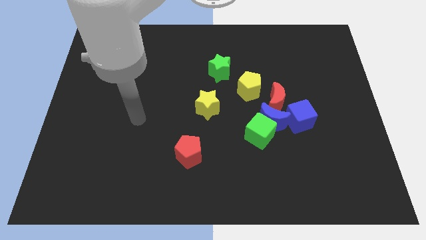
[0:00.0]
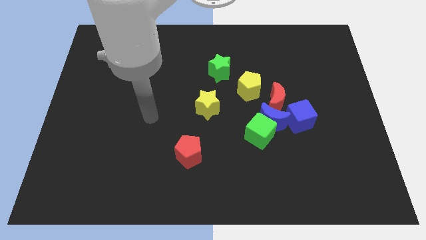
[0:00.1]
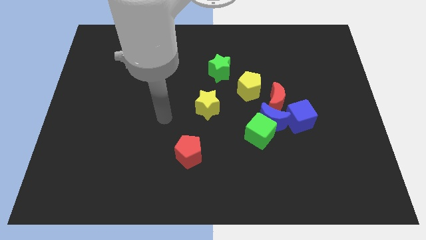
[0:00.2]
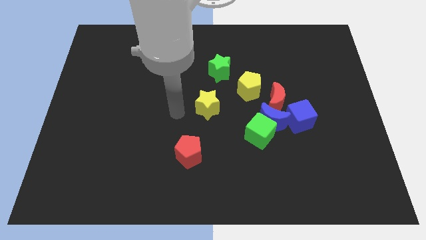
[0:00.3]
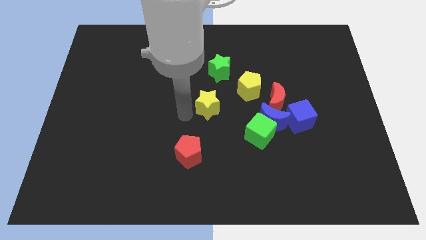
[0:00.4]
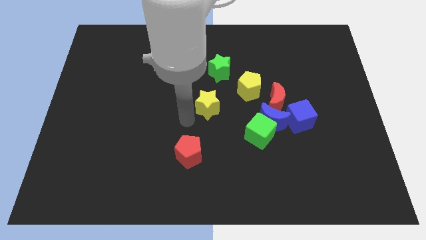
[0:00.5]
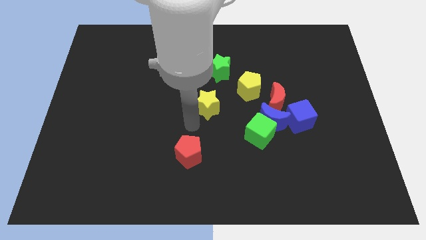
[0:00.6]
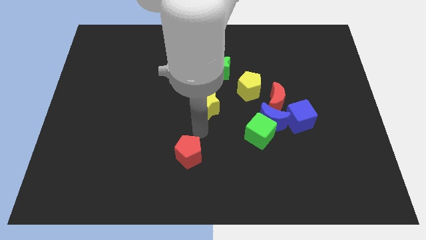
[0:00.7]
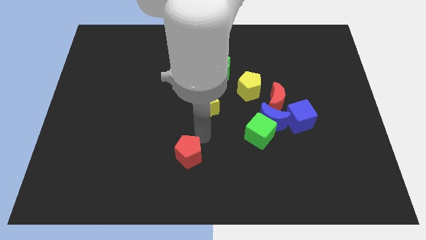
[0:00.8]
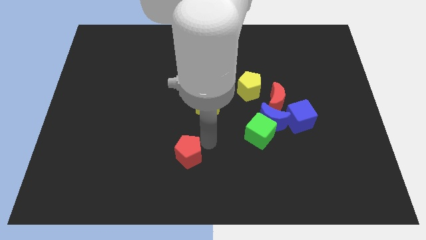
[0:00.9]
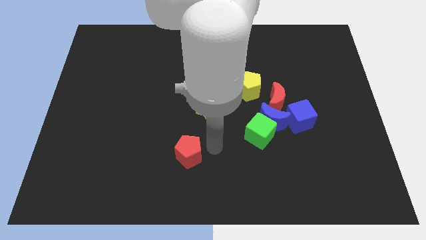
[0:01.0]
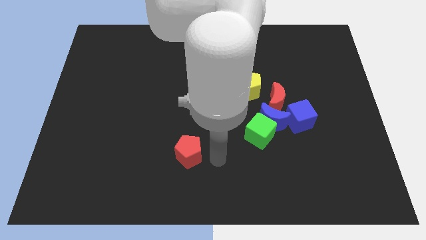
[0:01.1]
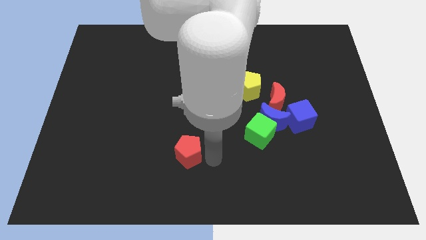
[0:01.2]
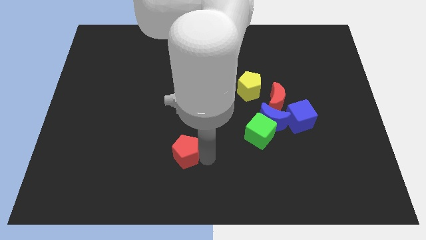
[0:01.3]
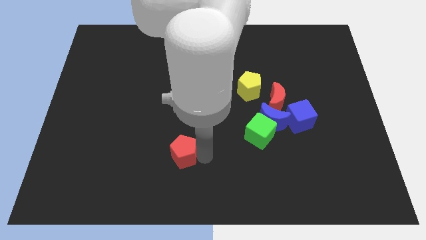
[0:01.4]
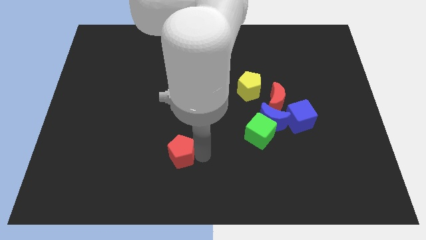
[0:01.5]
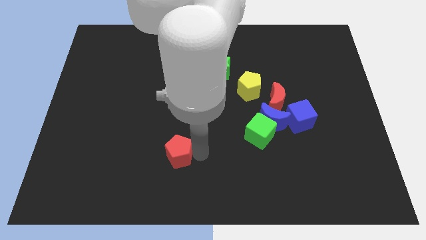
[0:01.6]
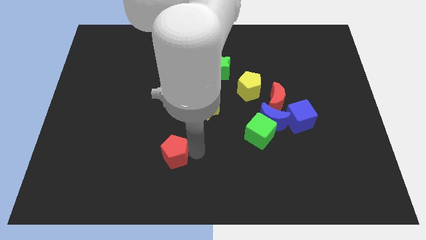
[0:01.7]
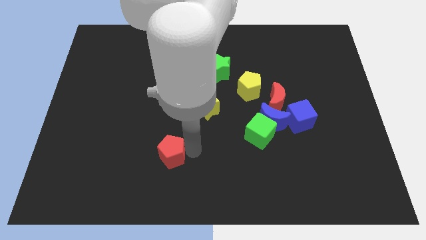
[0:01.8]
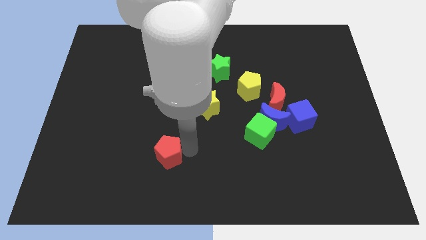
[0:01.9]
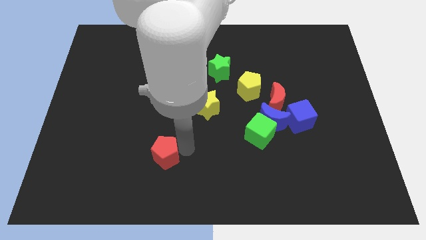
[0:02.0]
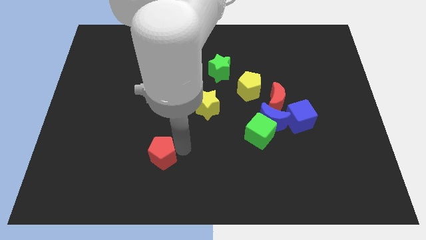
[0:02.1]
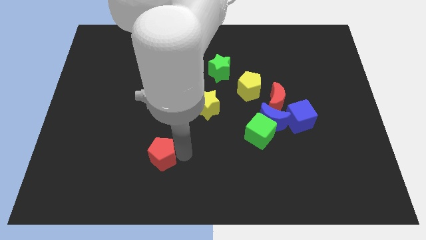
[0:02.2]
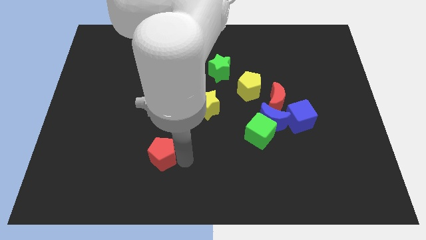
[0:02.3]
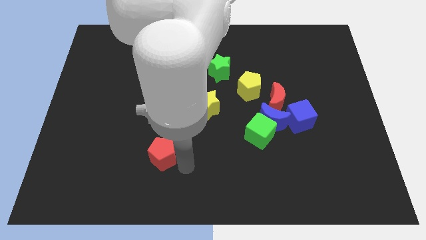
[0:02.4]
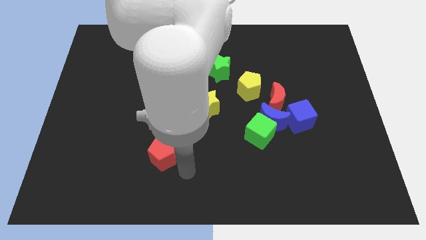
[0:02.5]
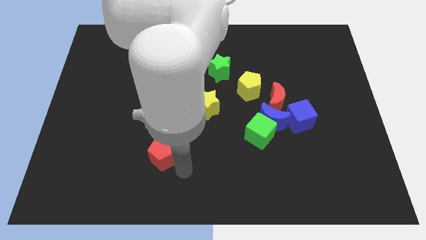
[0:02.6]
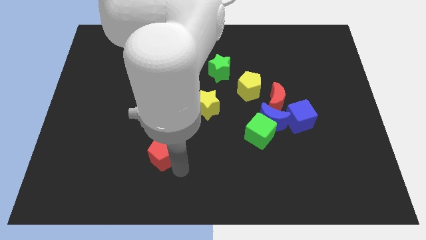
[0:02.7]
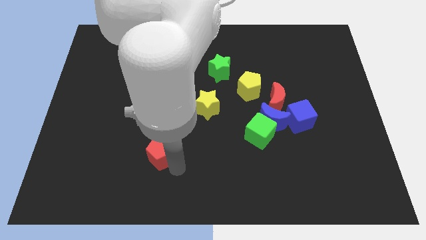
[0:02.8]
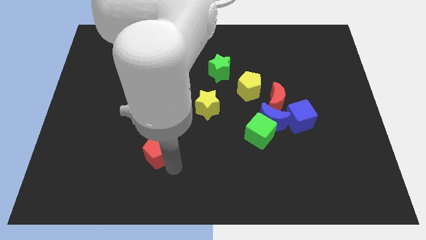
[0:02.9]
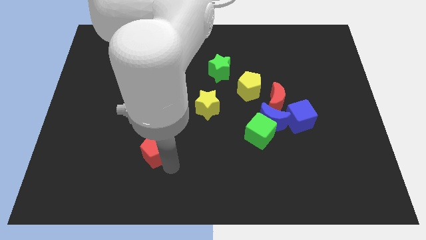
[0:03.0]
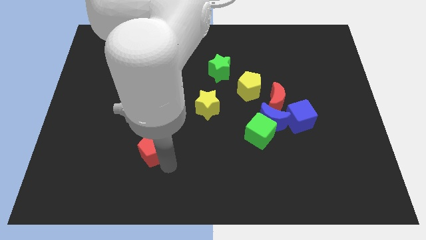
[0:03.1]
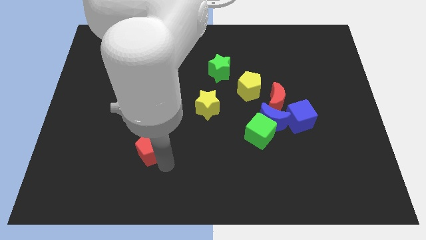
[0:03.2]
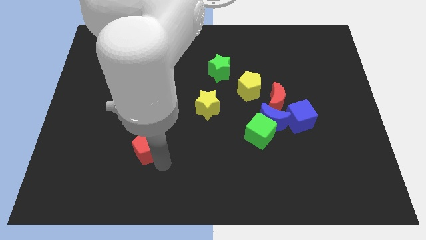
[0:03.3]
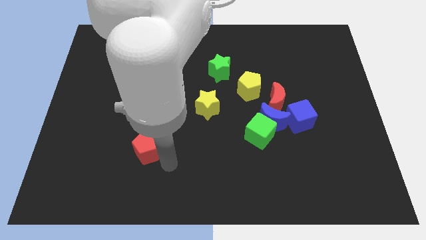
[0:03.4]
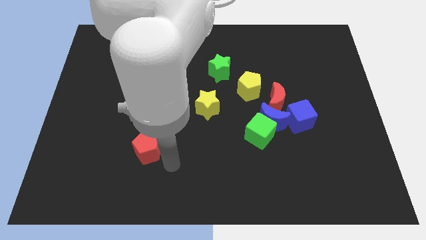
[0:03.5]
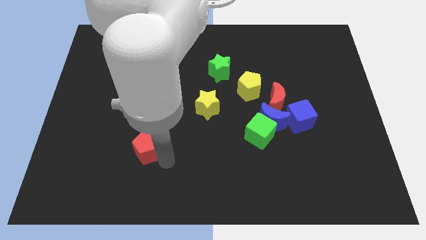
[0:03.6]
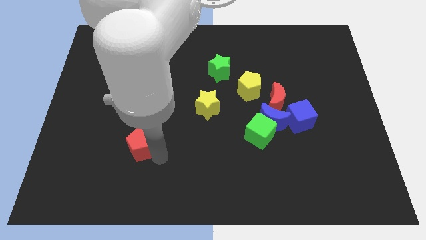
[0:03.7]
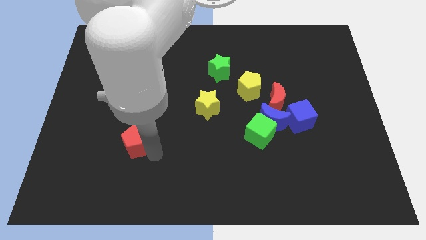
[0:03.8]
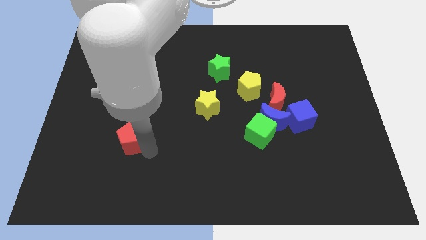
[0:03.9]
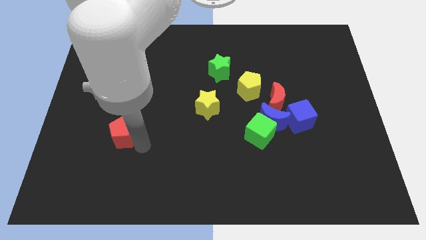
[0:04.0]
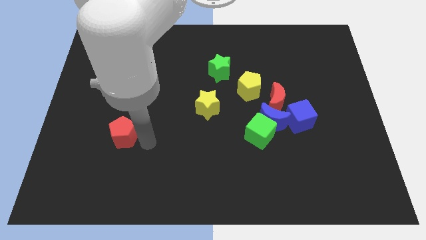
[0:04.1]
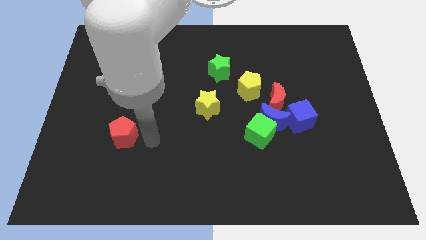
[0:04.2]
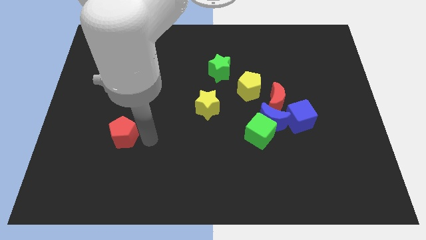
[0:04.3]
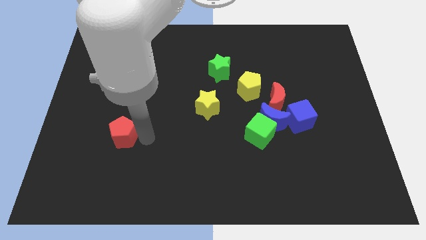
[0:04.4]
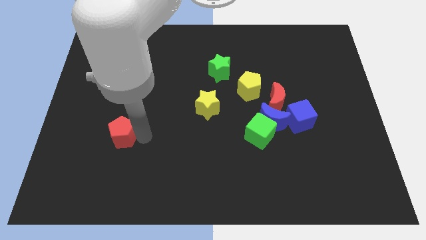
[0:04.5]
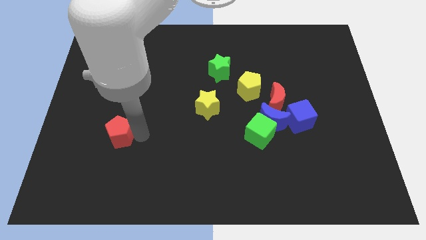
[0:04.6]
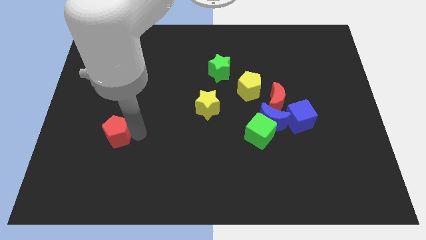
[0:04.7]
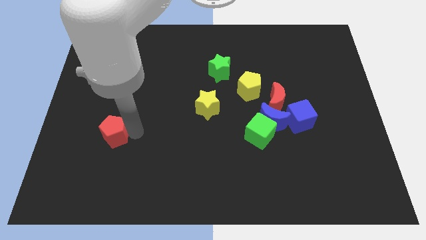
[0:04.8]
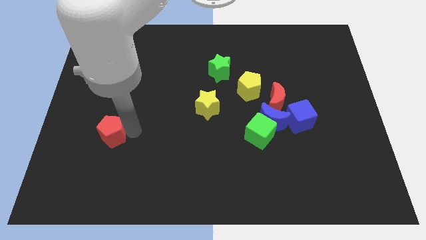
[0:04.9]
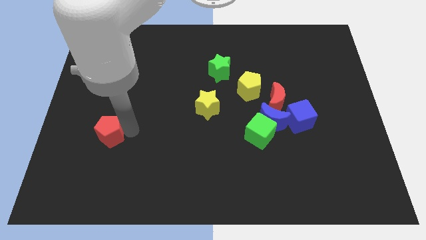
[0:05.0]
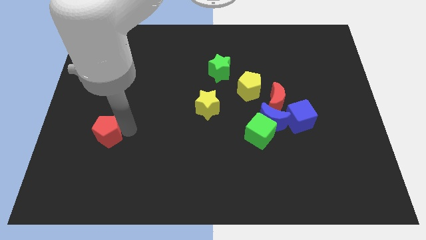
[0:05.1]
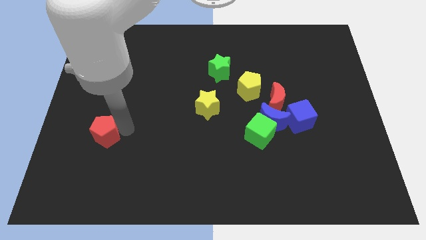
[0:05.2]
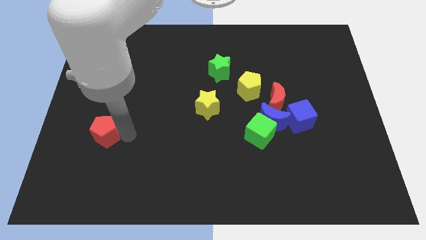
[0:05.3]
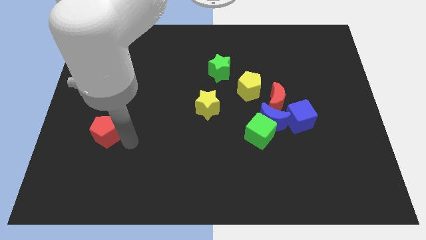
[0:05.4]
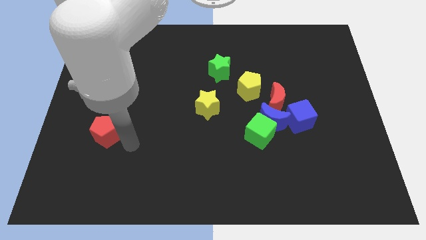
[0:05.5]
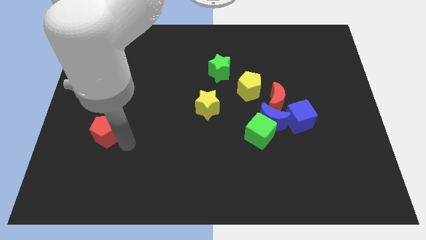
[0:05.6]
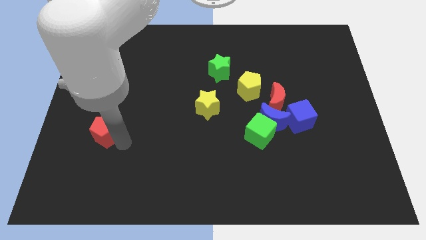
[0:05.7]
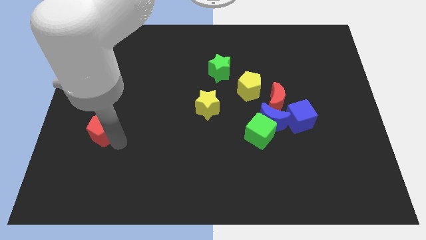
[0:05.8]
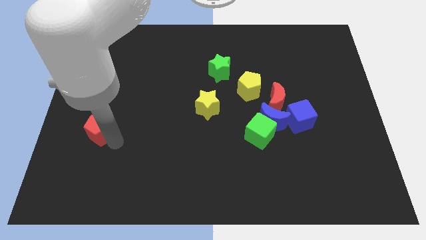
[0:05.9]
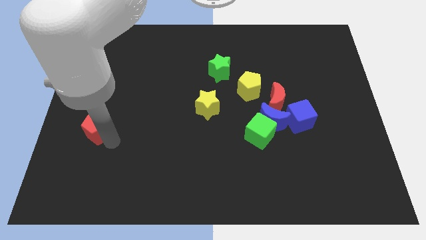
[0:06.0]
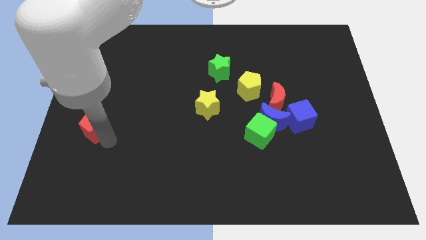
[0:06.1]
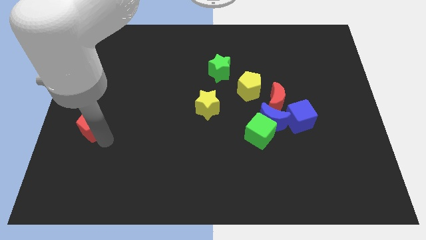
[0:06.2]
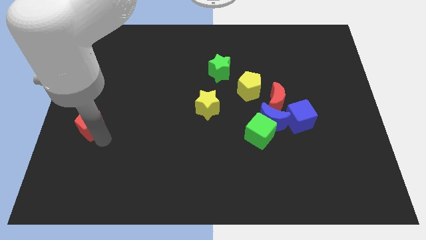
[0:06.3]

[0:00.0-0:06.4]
push the red pentagon to the left side

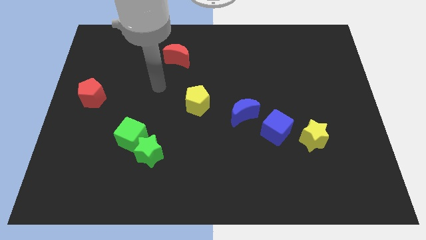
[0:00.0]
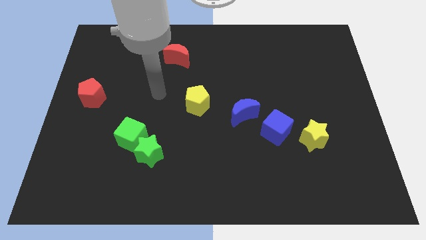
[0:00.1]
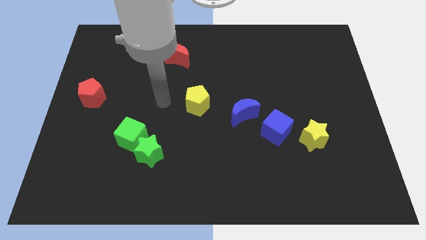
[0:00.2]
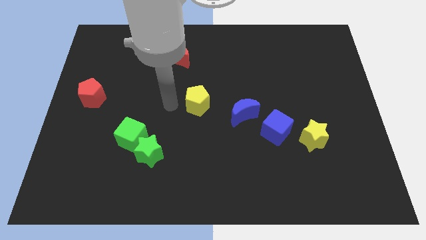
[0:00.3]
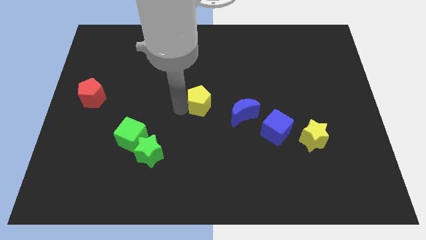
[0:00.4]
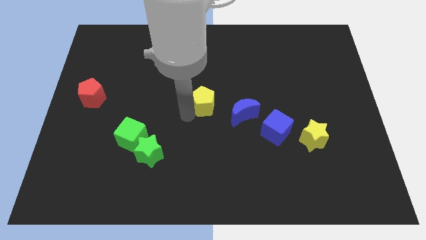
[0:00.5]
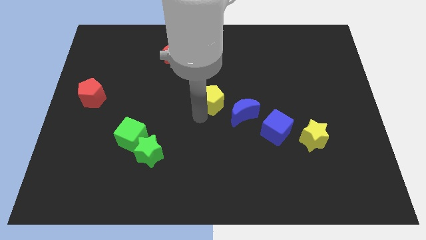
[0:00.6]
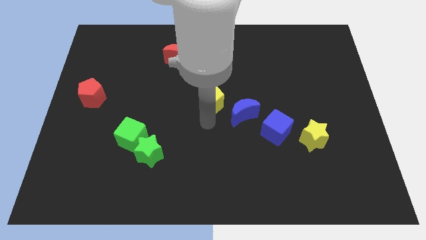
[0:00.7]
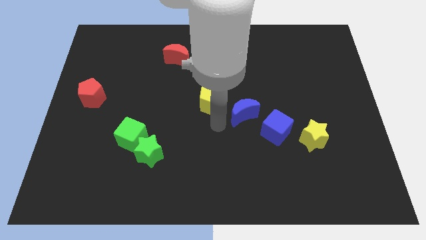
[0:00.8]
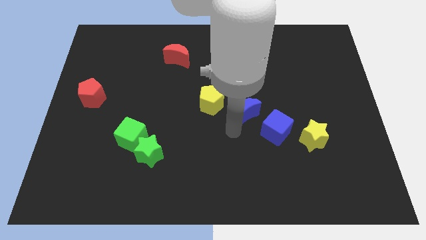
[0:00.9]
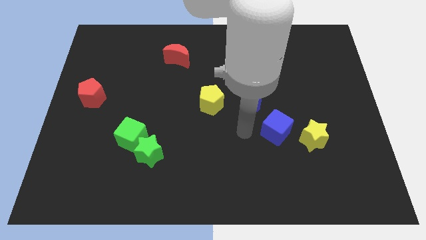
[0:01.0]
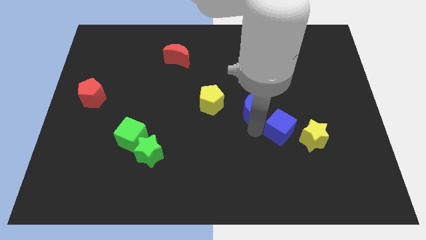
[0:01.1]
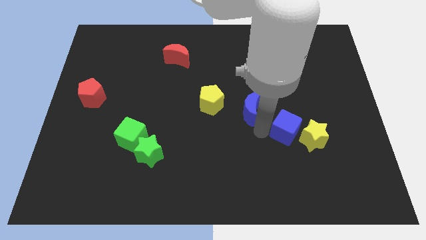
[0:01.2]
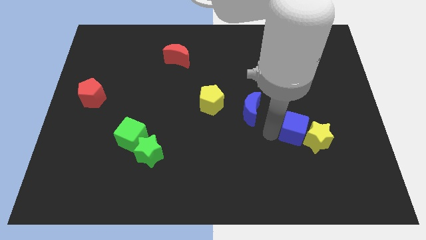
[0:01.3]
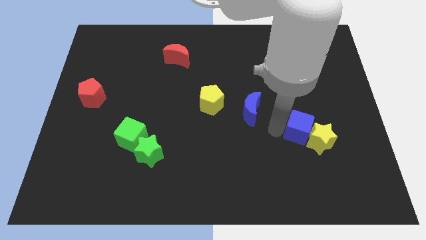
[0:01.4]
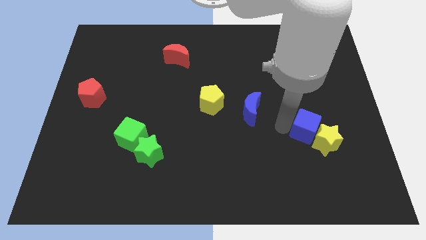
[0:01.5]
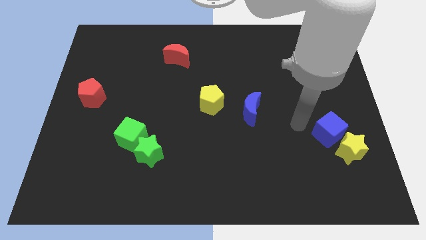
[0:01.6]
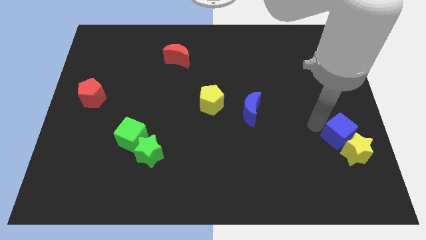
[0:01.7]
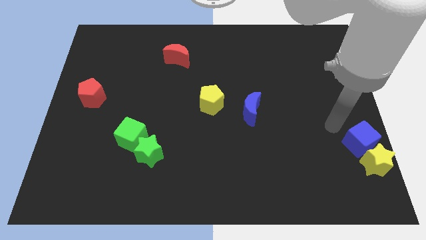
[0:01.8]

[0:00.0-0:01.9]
slide the yellow star to the lower right corner
